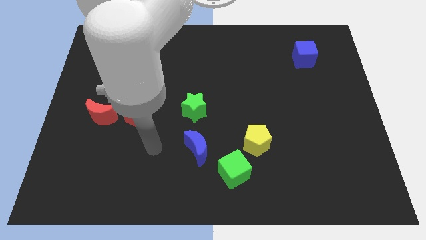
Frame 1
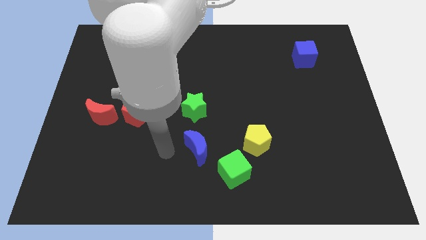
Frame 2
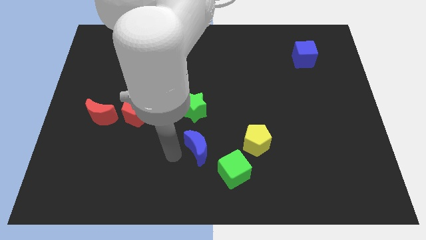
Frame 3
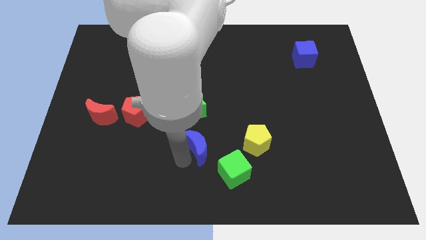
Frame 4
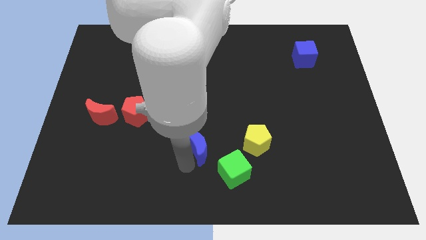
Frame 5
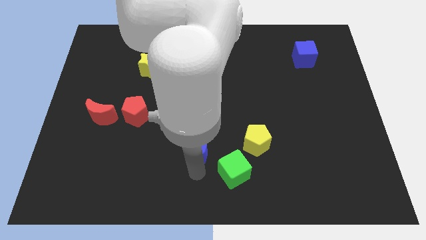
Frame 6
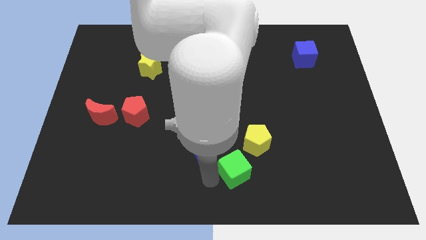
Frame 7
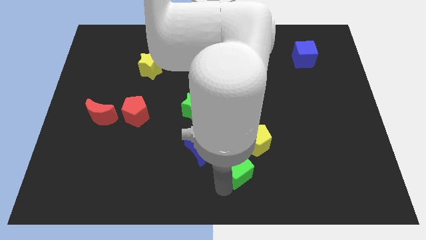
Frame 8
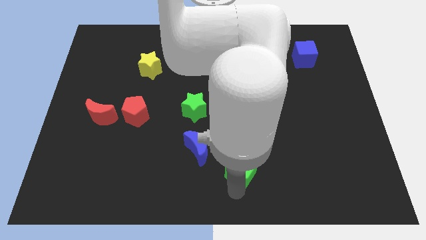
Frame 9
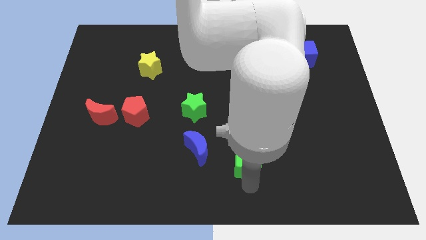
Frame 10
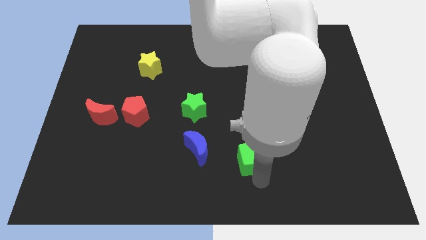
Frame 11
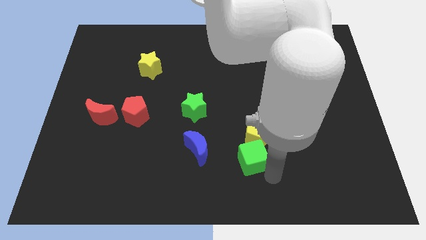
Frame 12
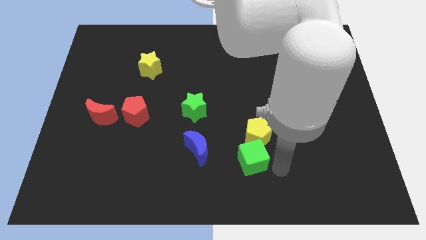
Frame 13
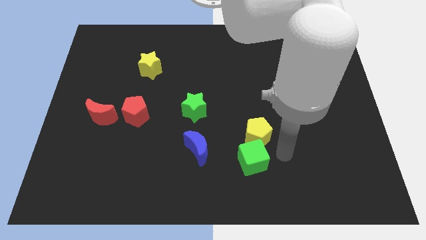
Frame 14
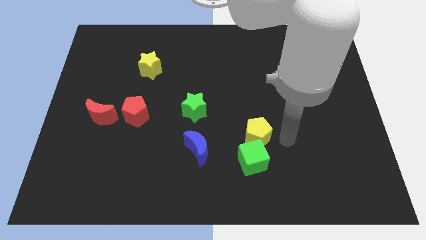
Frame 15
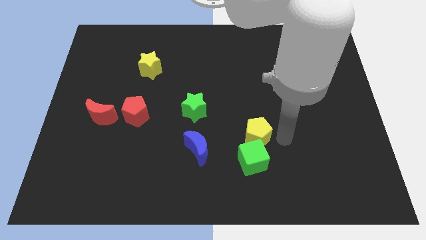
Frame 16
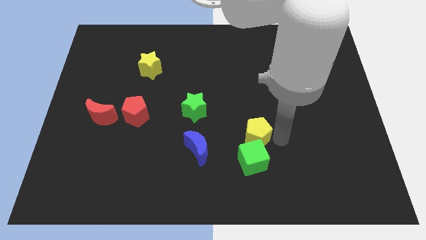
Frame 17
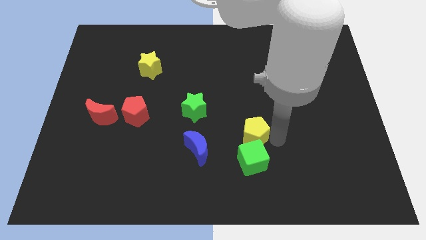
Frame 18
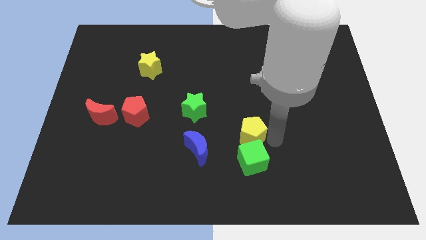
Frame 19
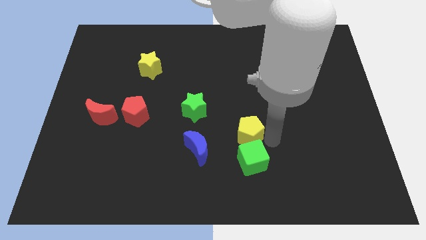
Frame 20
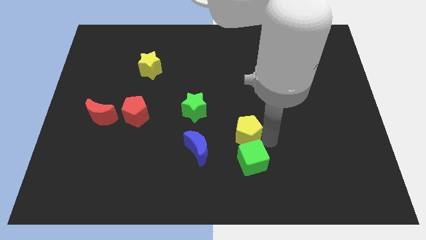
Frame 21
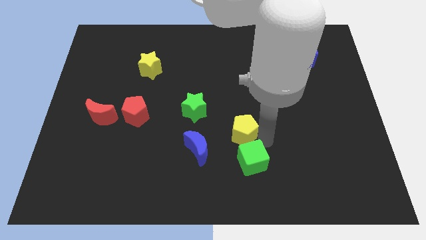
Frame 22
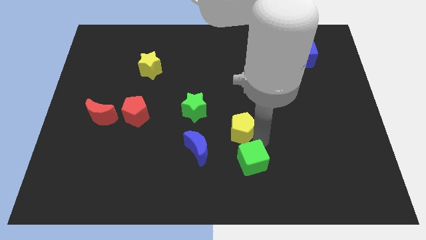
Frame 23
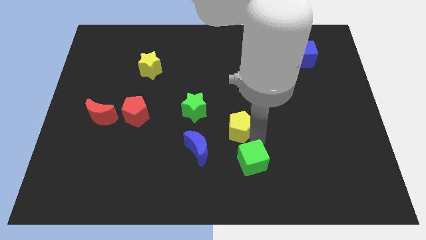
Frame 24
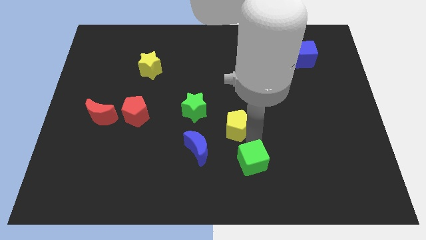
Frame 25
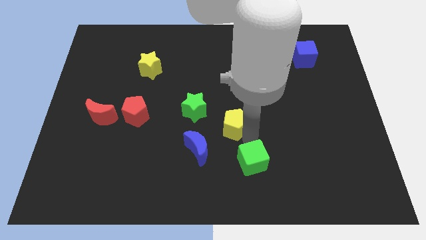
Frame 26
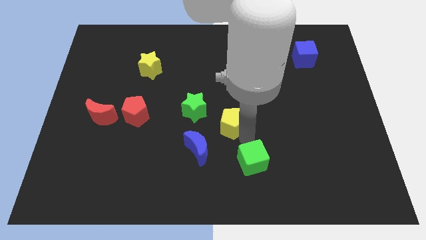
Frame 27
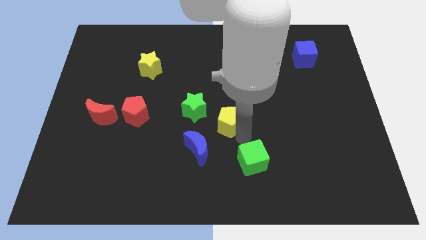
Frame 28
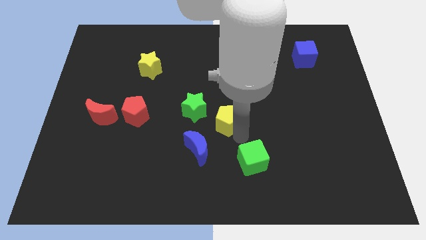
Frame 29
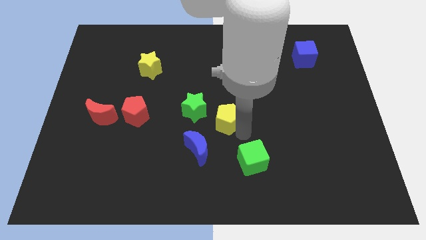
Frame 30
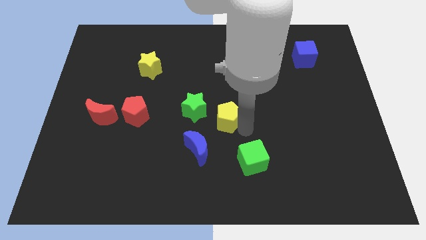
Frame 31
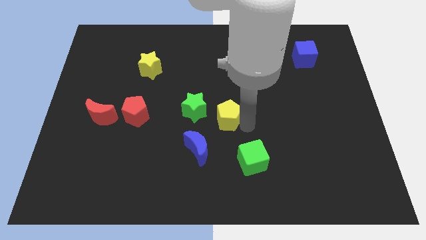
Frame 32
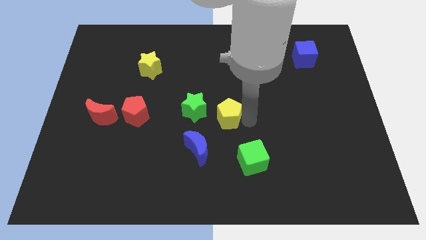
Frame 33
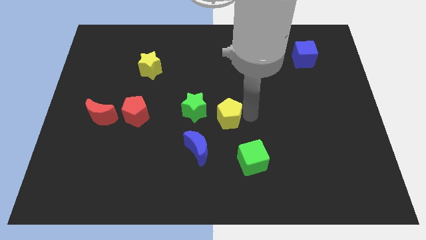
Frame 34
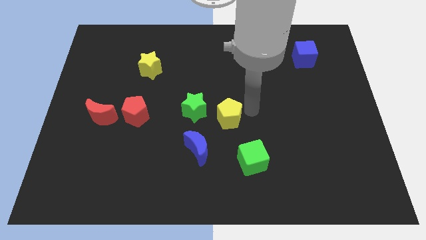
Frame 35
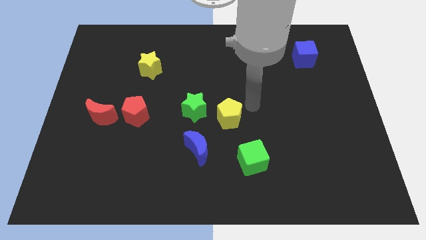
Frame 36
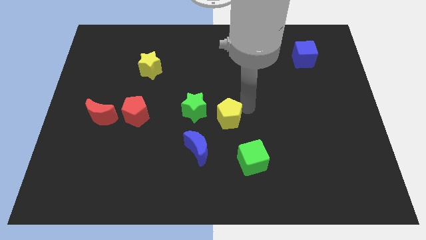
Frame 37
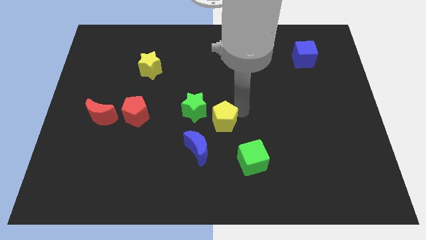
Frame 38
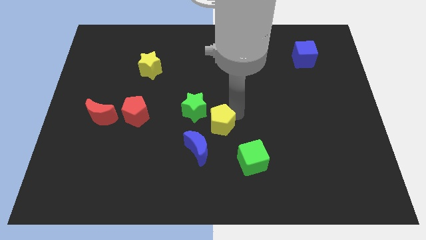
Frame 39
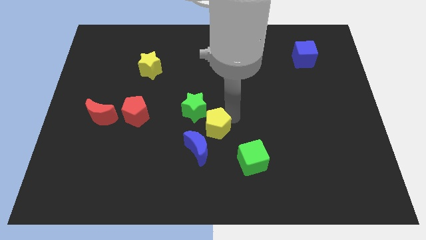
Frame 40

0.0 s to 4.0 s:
move the yellow pentagon to the left somewhat

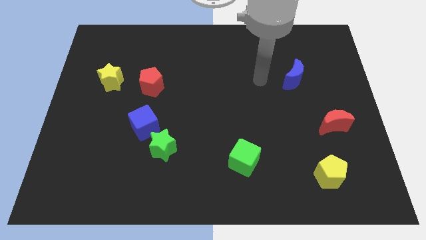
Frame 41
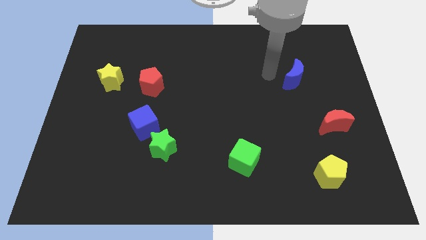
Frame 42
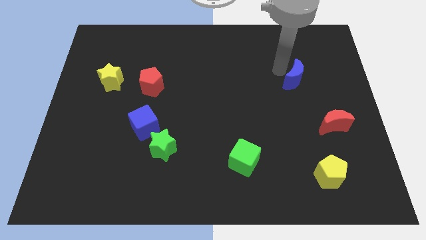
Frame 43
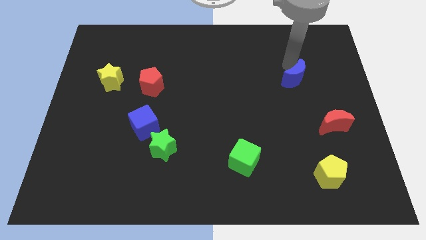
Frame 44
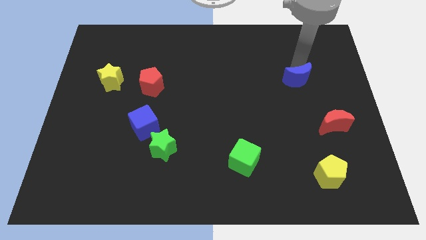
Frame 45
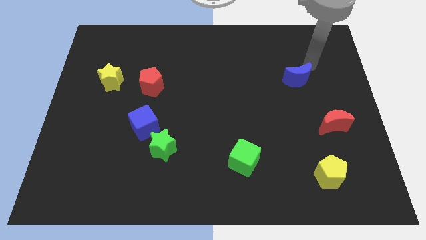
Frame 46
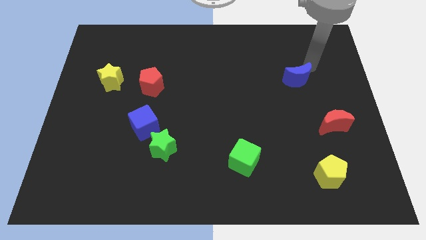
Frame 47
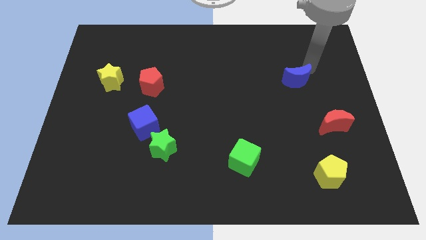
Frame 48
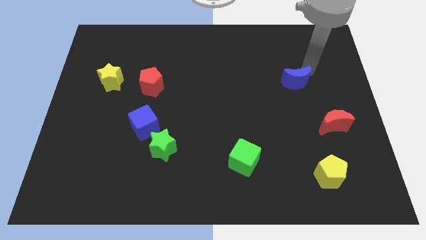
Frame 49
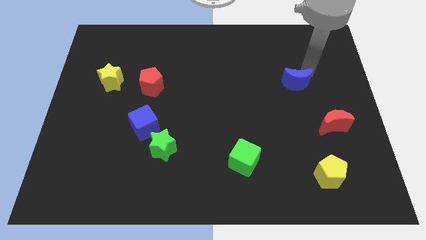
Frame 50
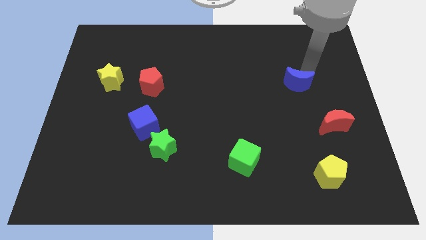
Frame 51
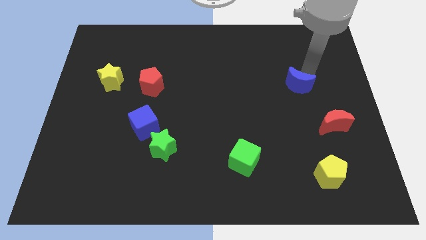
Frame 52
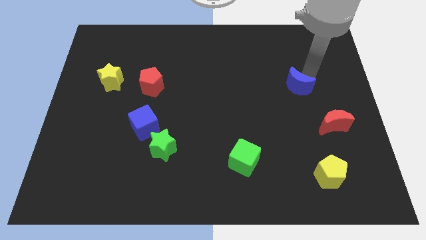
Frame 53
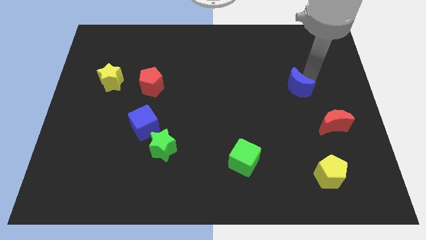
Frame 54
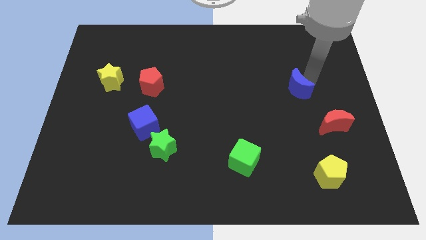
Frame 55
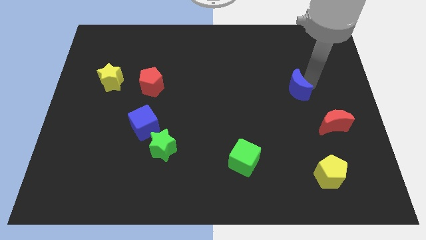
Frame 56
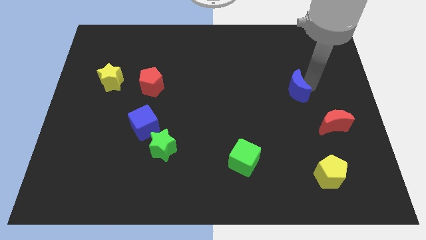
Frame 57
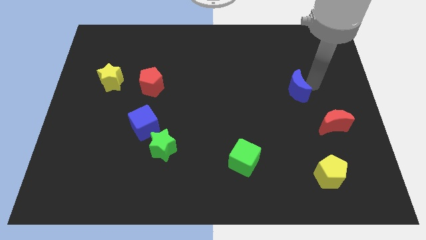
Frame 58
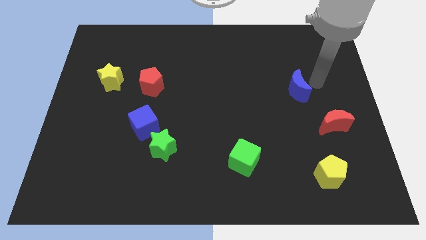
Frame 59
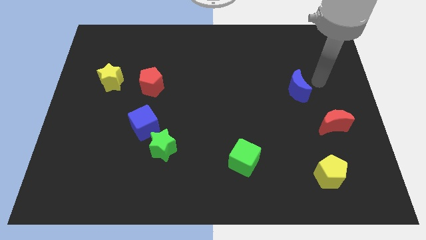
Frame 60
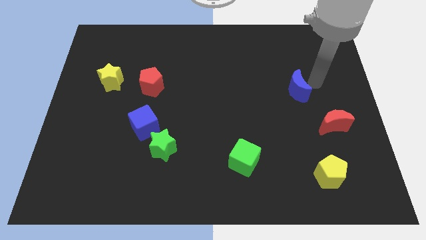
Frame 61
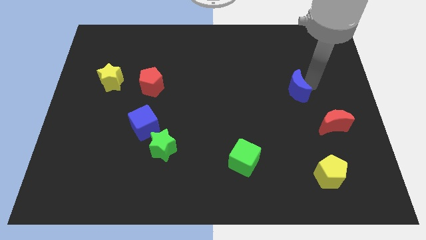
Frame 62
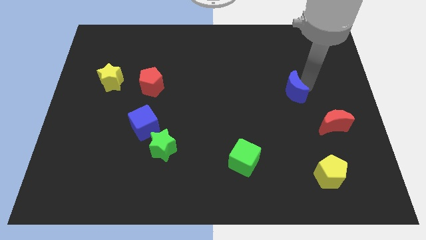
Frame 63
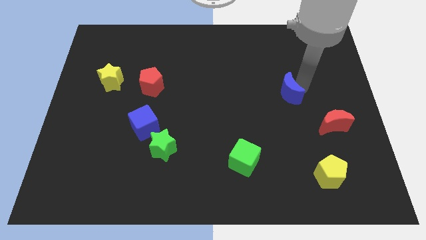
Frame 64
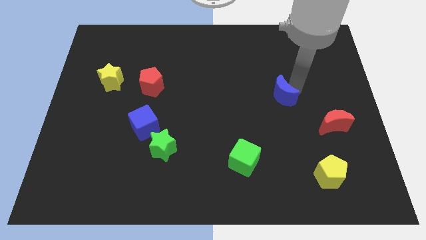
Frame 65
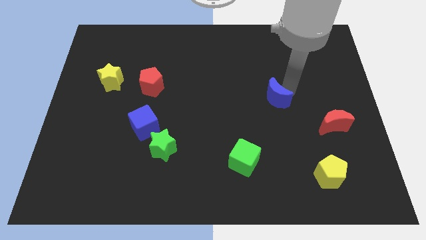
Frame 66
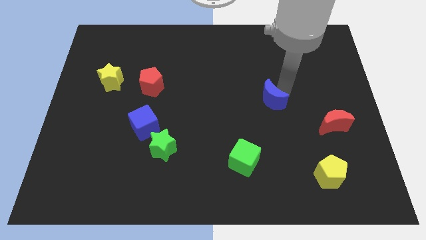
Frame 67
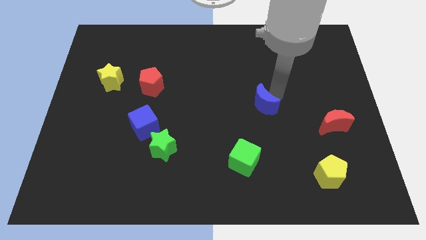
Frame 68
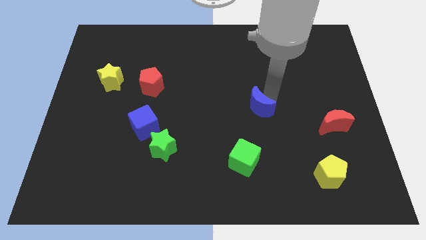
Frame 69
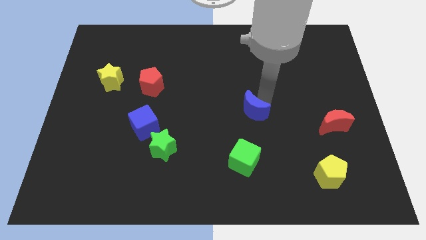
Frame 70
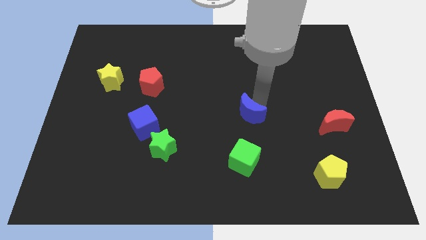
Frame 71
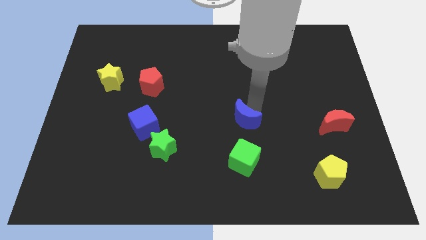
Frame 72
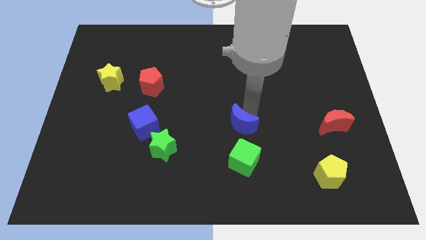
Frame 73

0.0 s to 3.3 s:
slide the blue moon downwards and left diagonally

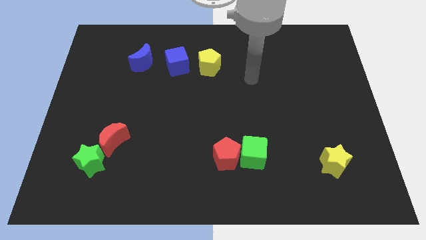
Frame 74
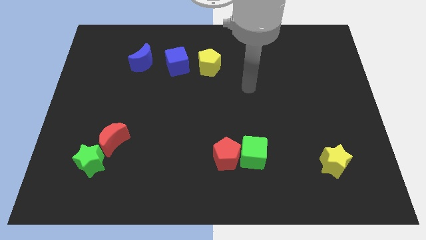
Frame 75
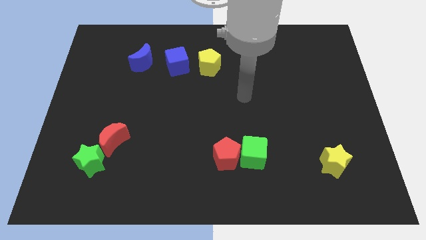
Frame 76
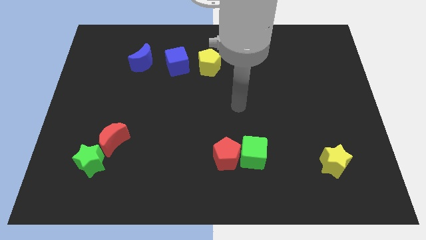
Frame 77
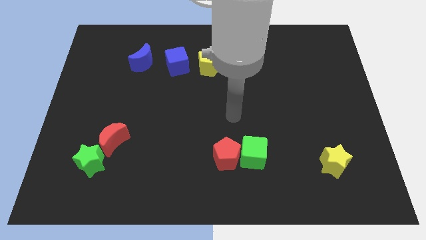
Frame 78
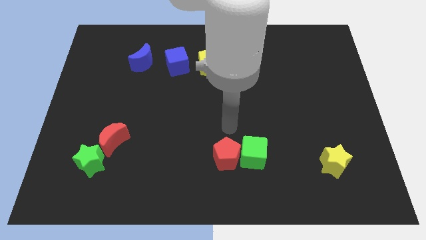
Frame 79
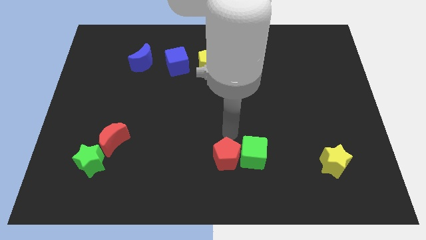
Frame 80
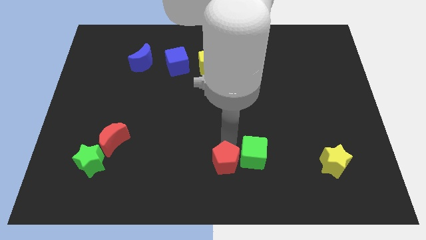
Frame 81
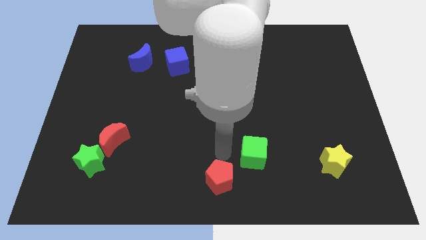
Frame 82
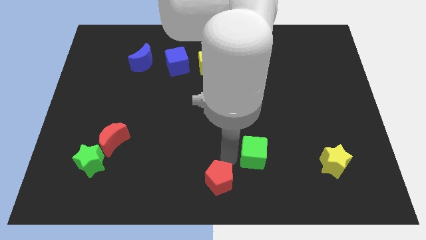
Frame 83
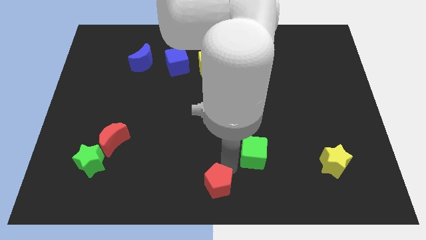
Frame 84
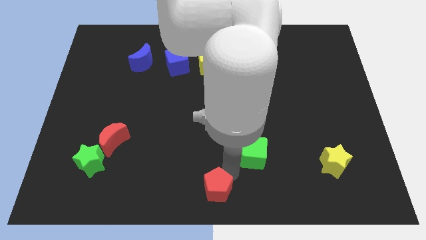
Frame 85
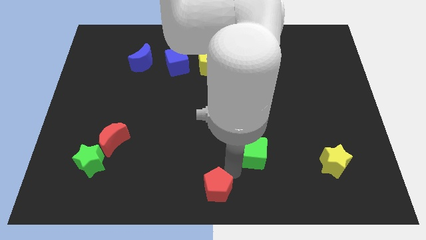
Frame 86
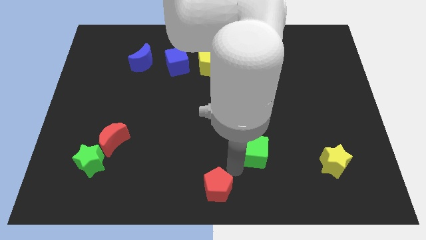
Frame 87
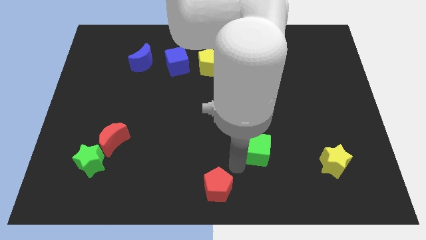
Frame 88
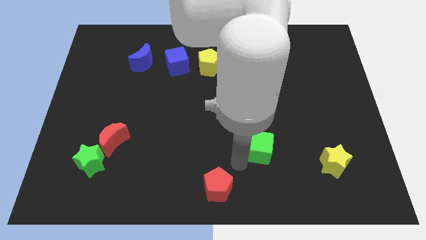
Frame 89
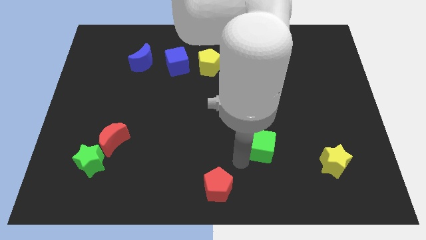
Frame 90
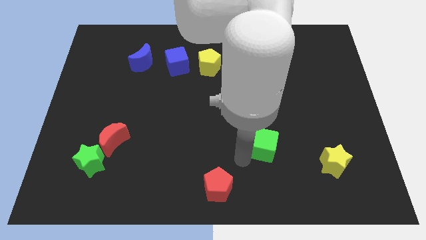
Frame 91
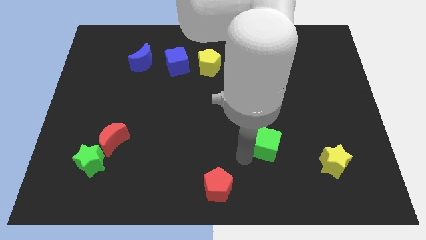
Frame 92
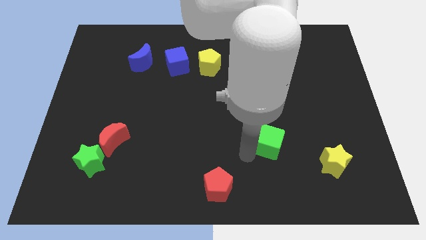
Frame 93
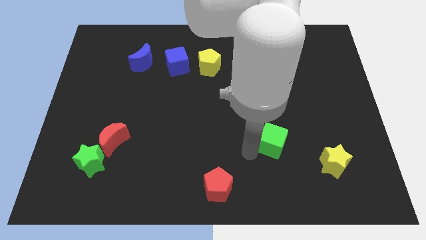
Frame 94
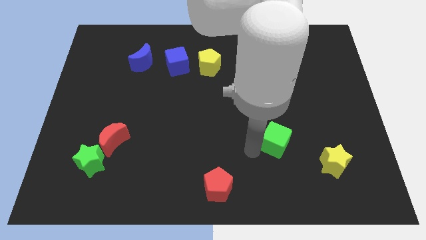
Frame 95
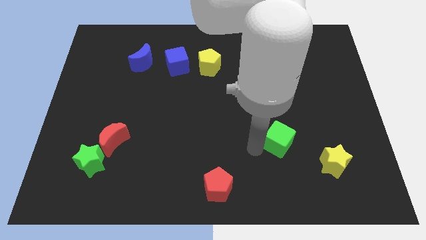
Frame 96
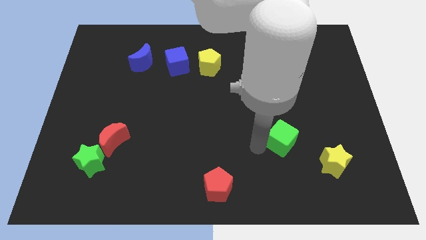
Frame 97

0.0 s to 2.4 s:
slide the green cube a little up and to the right
